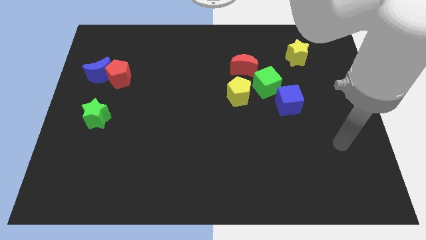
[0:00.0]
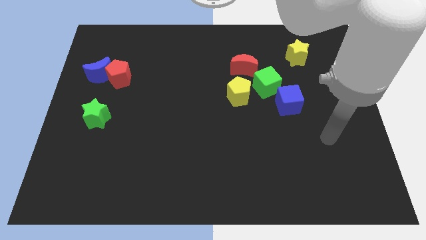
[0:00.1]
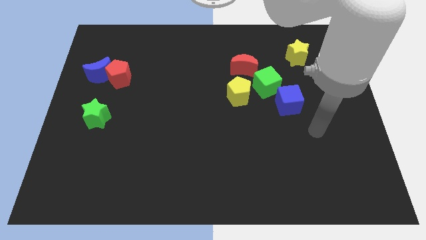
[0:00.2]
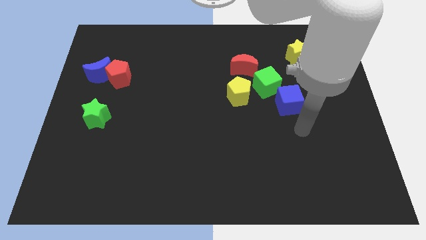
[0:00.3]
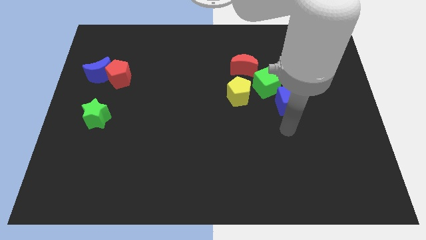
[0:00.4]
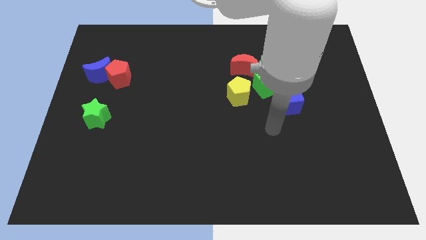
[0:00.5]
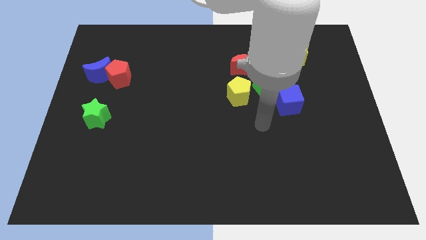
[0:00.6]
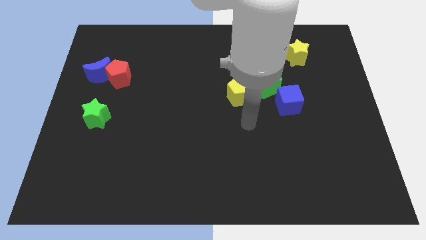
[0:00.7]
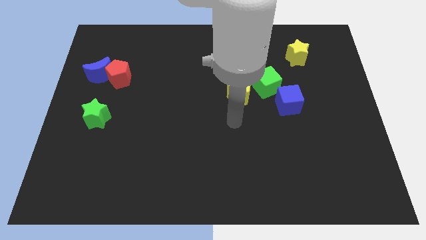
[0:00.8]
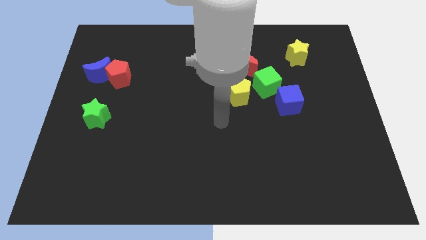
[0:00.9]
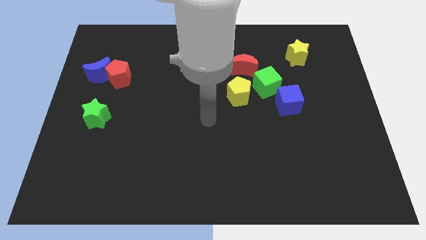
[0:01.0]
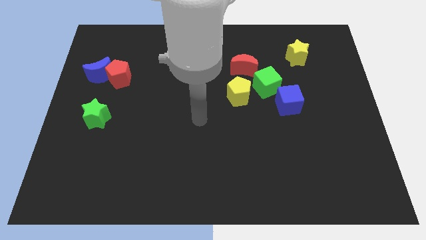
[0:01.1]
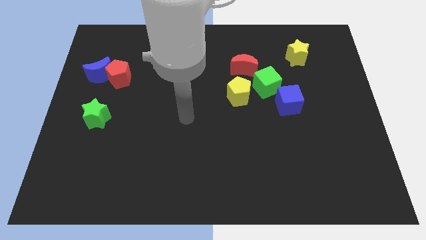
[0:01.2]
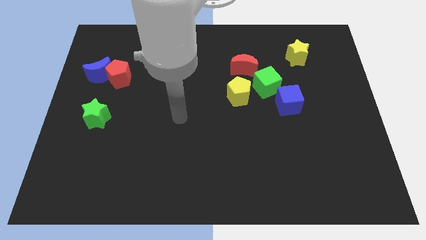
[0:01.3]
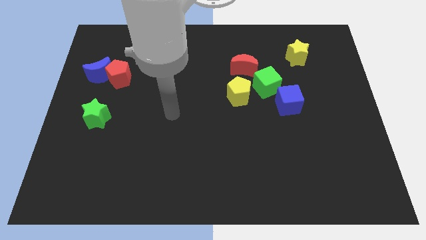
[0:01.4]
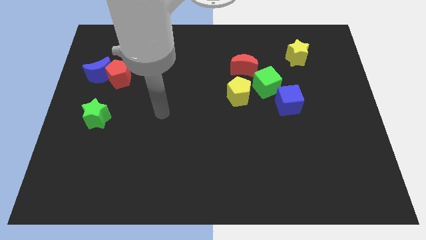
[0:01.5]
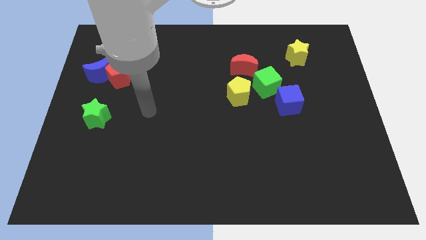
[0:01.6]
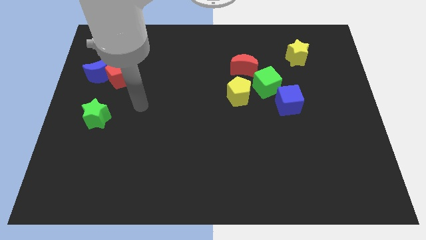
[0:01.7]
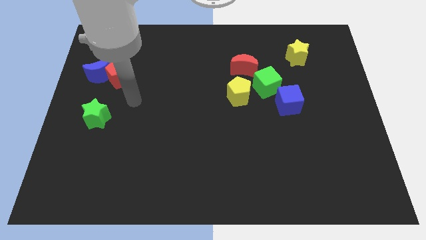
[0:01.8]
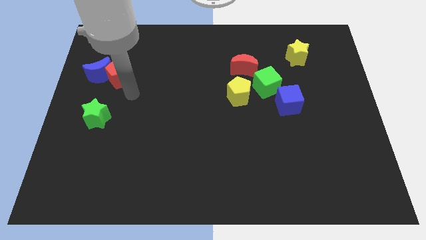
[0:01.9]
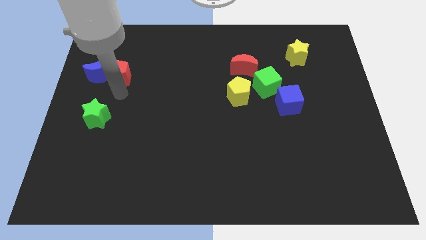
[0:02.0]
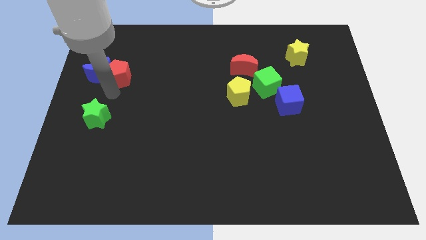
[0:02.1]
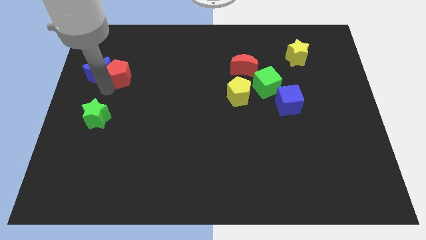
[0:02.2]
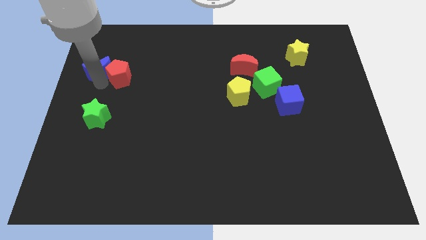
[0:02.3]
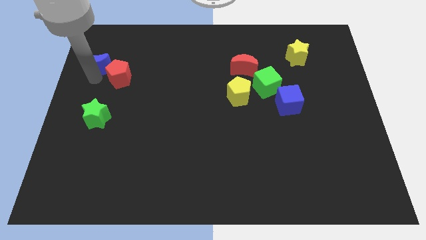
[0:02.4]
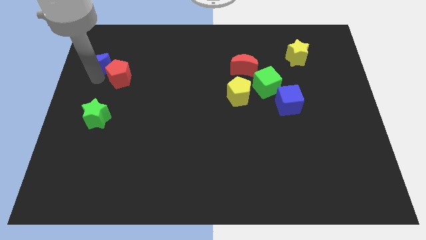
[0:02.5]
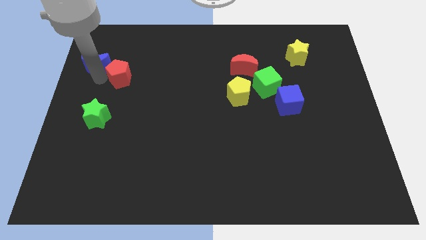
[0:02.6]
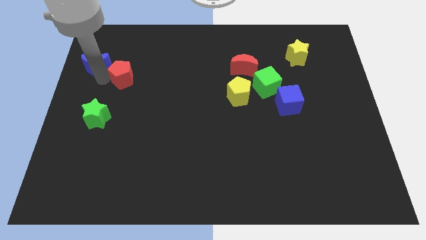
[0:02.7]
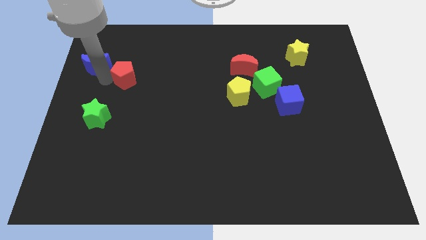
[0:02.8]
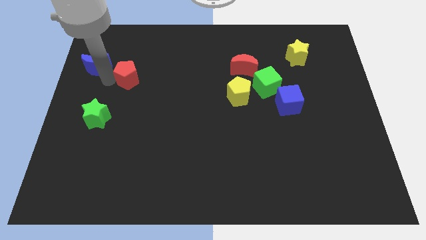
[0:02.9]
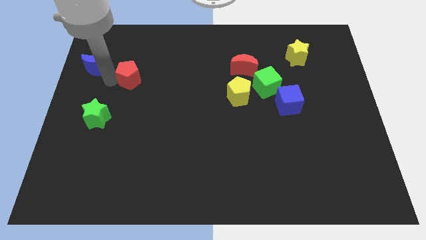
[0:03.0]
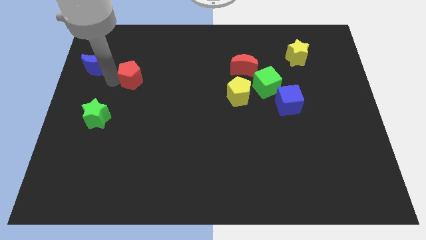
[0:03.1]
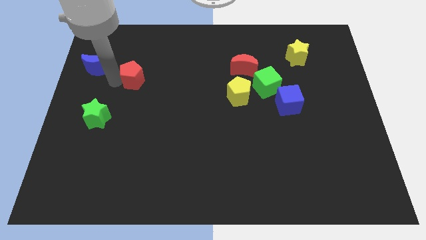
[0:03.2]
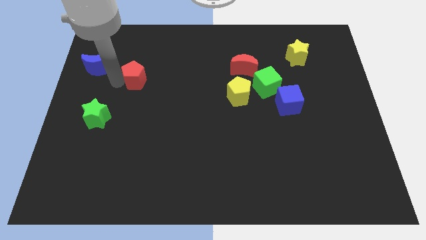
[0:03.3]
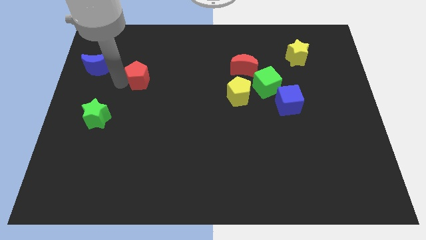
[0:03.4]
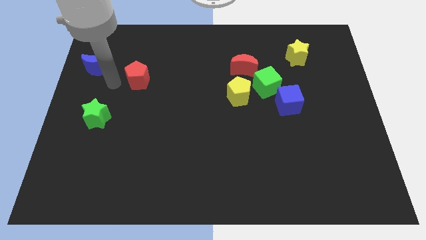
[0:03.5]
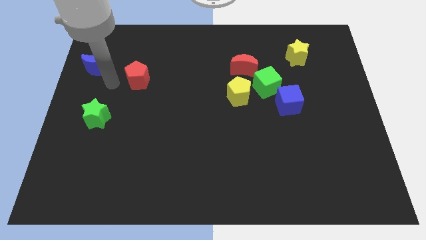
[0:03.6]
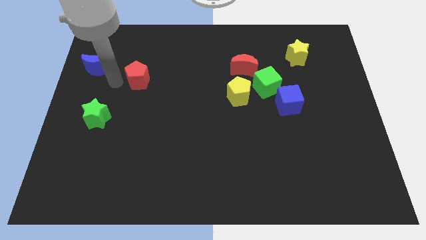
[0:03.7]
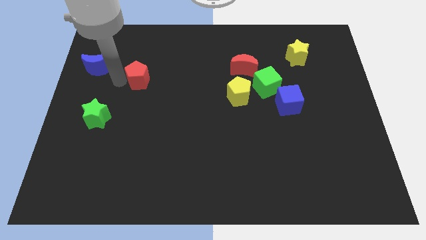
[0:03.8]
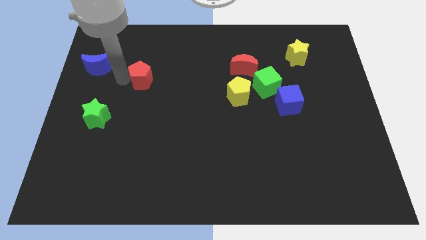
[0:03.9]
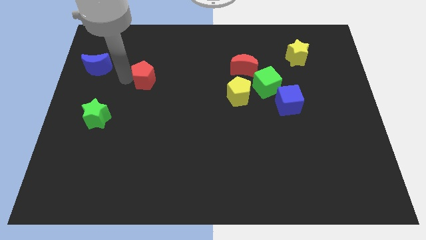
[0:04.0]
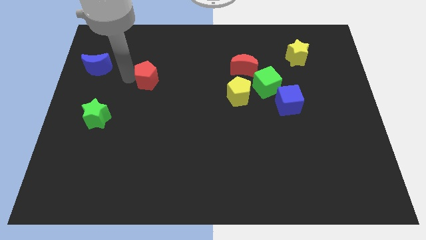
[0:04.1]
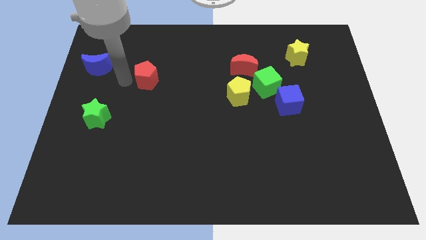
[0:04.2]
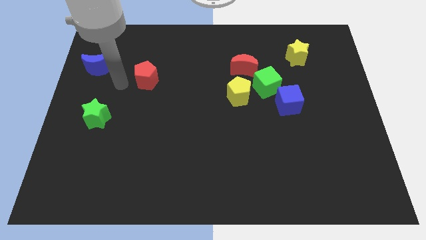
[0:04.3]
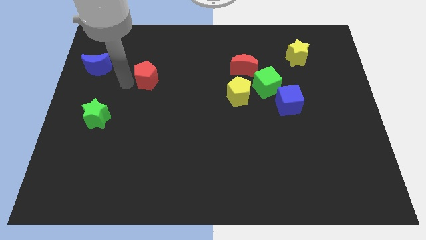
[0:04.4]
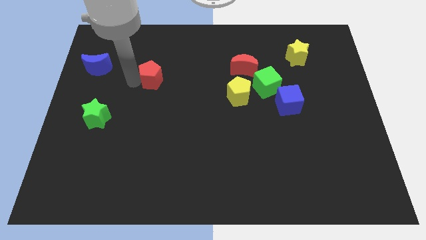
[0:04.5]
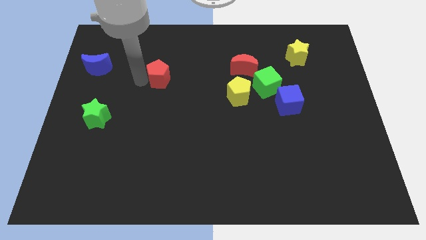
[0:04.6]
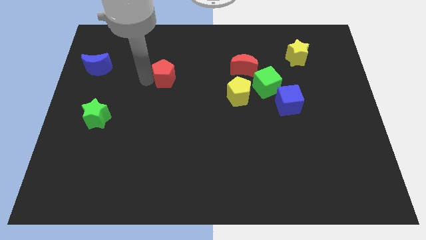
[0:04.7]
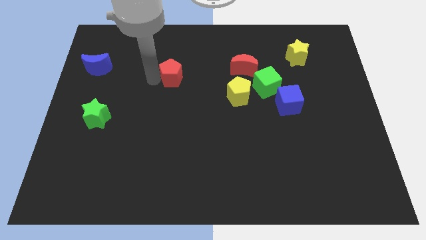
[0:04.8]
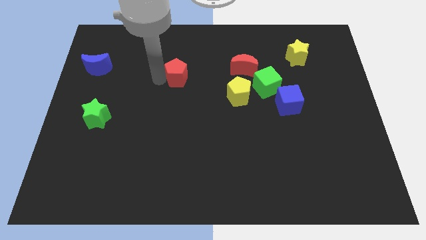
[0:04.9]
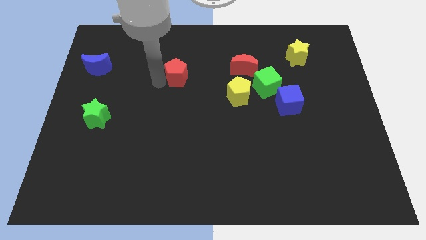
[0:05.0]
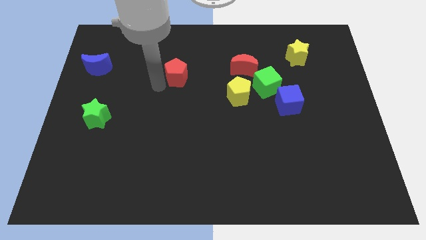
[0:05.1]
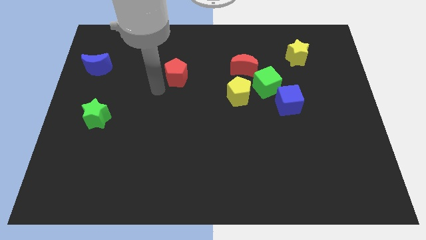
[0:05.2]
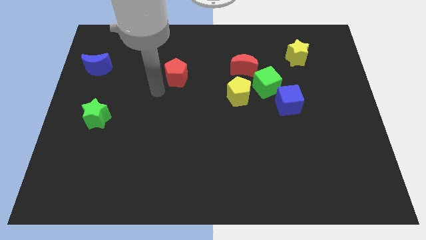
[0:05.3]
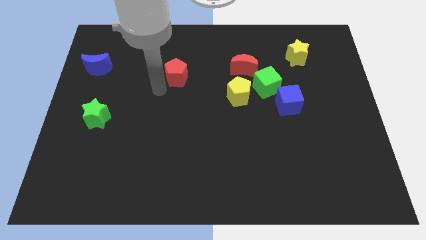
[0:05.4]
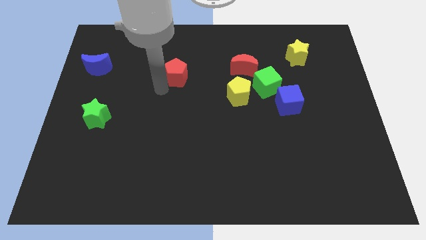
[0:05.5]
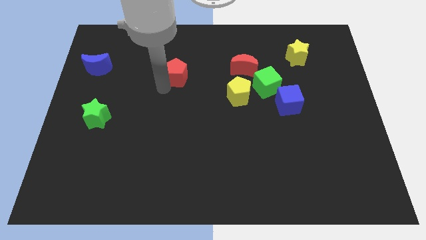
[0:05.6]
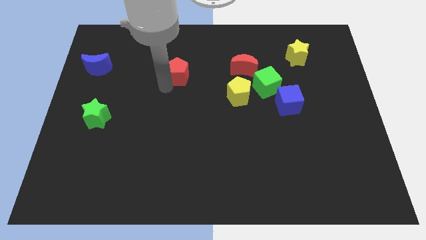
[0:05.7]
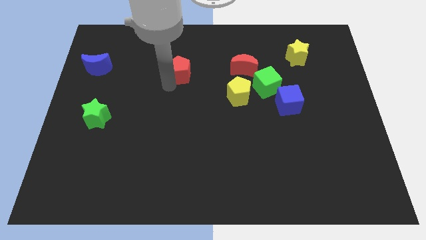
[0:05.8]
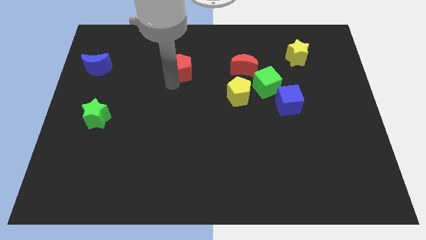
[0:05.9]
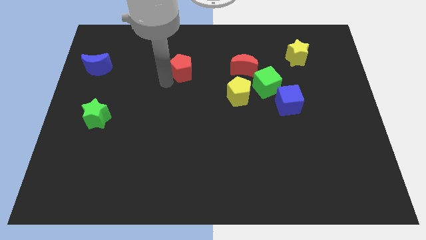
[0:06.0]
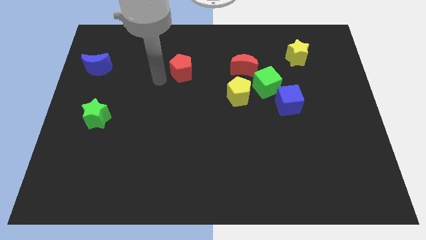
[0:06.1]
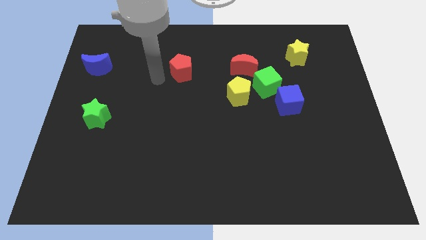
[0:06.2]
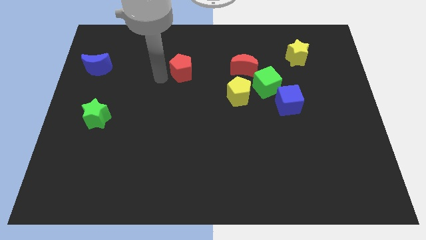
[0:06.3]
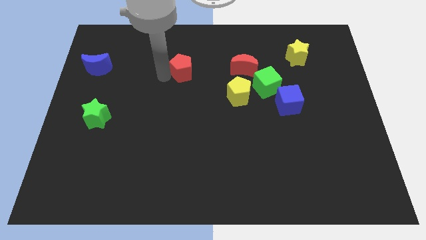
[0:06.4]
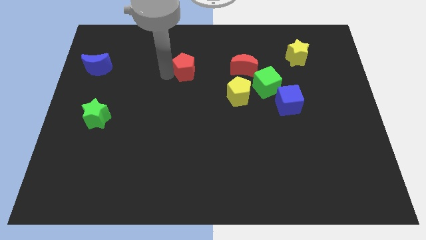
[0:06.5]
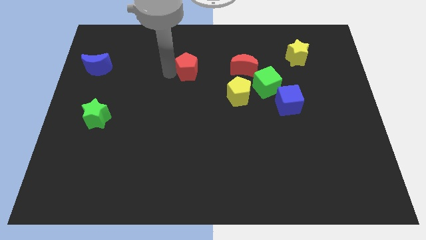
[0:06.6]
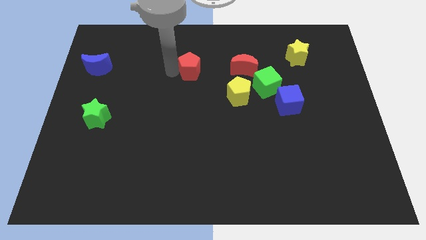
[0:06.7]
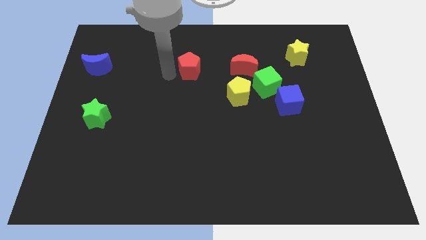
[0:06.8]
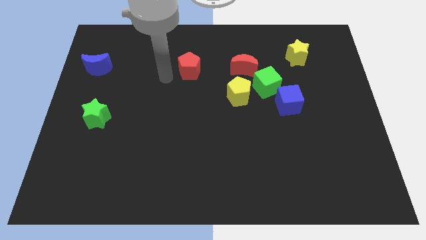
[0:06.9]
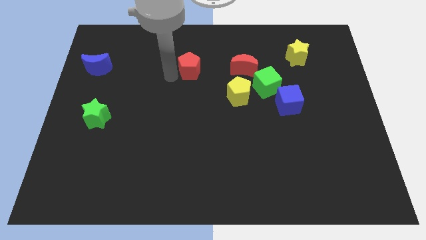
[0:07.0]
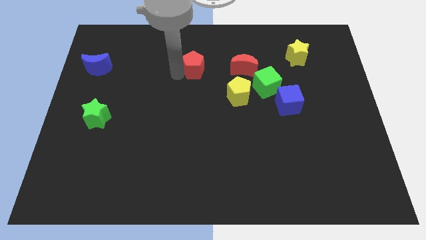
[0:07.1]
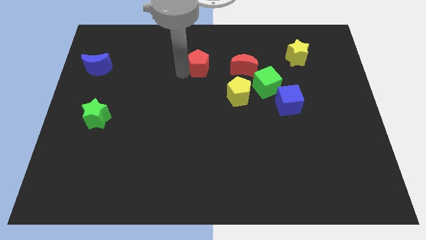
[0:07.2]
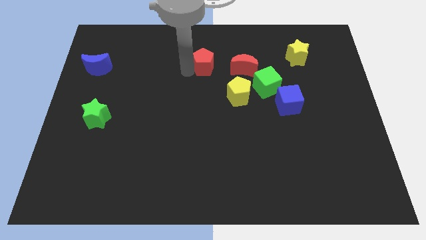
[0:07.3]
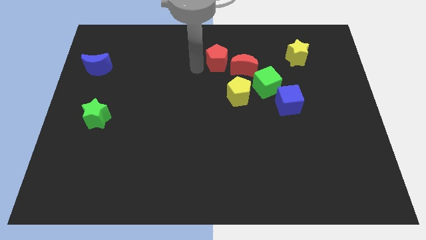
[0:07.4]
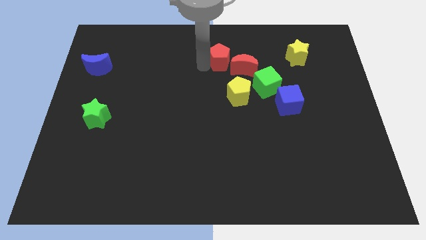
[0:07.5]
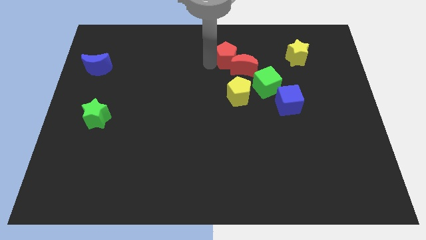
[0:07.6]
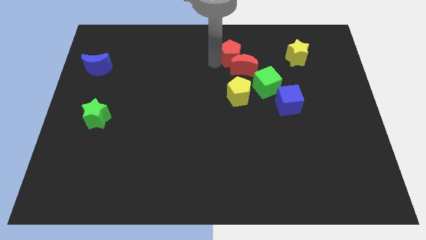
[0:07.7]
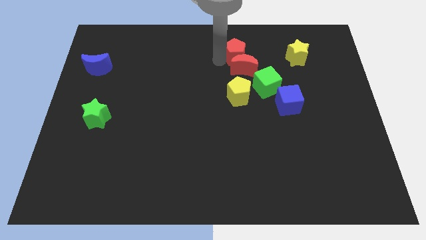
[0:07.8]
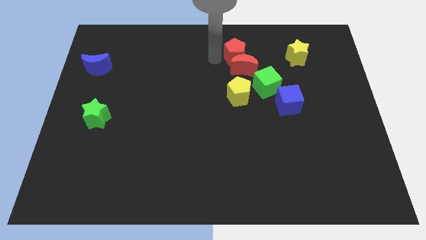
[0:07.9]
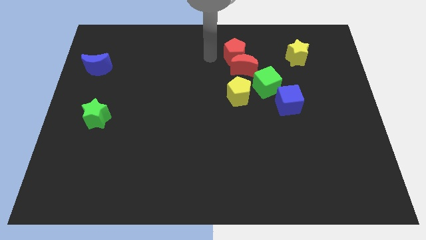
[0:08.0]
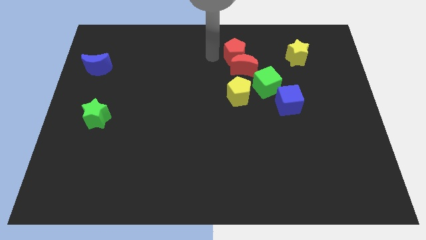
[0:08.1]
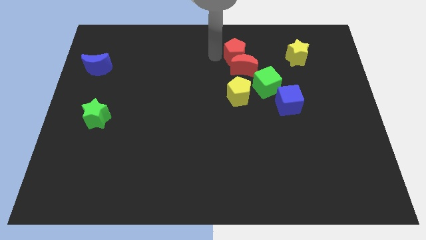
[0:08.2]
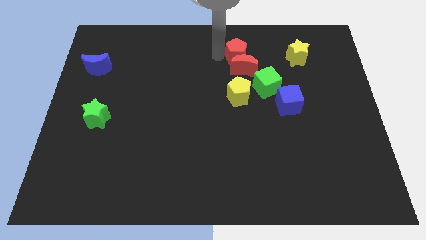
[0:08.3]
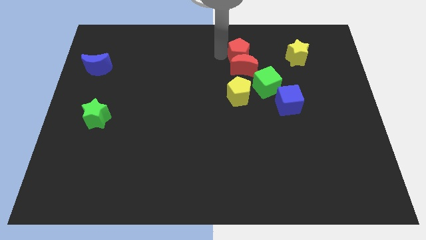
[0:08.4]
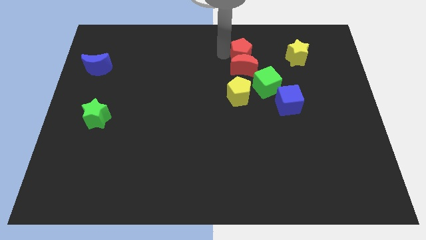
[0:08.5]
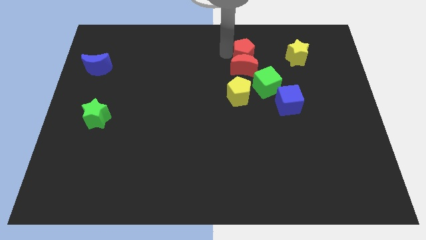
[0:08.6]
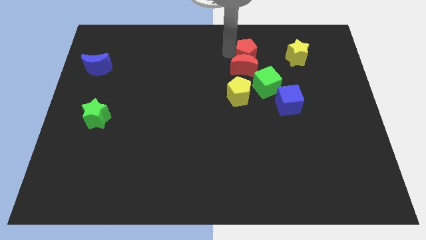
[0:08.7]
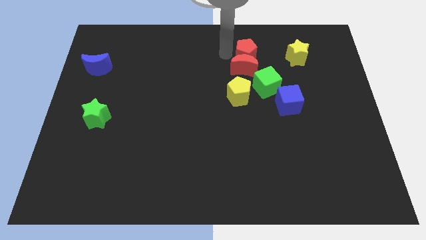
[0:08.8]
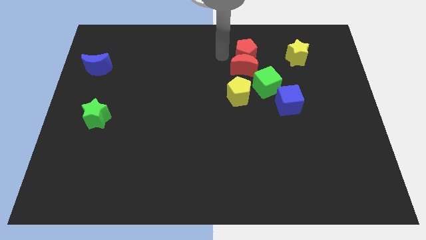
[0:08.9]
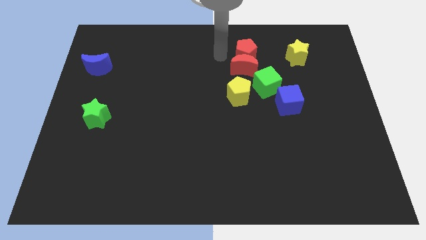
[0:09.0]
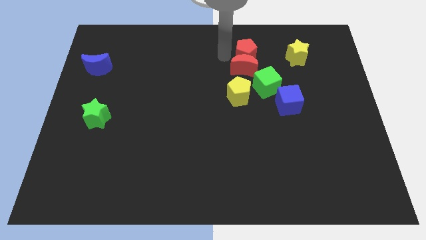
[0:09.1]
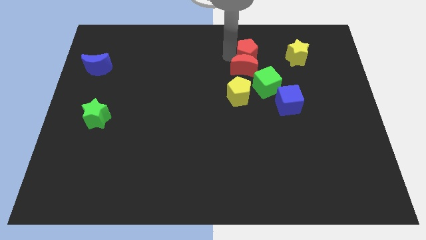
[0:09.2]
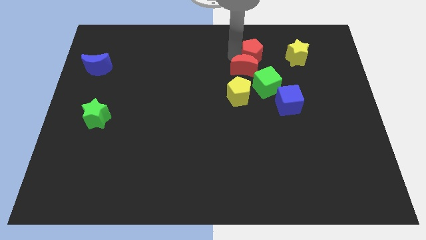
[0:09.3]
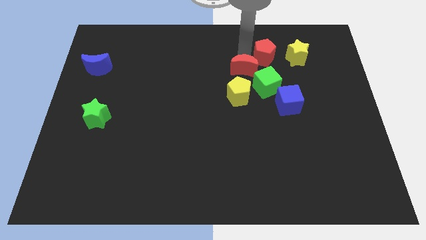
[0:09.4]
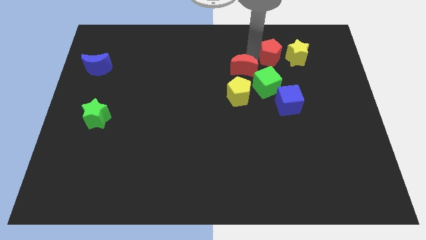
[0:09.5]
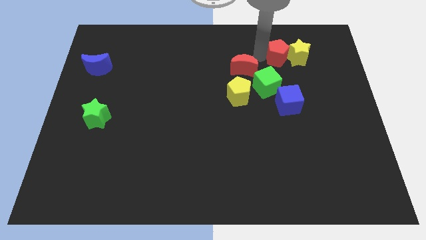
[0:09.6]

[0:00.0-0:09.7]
push the red pentagon towards the yellow star
